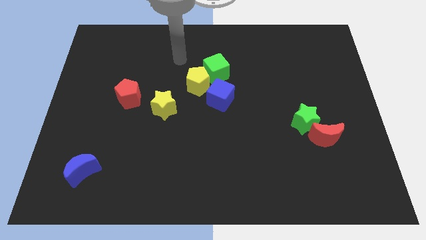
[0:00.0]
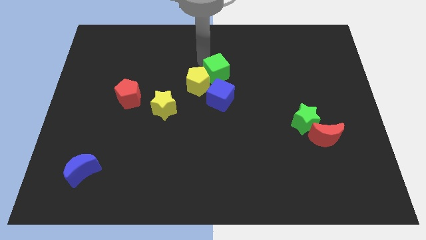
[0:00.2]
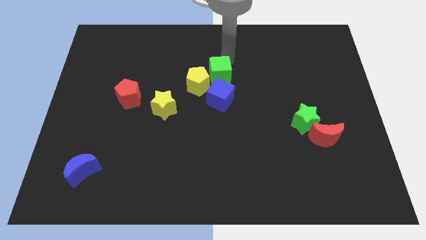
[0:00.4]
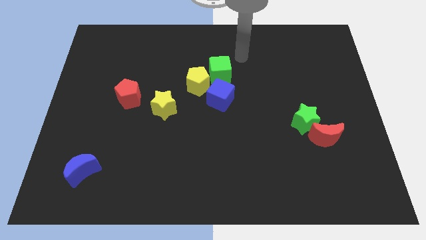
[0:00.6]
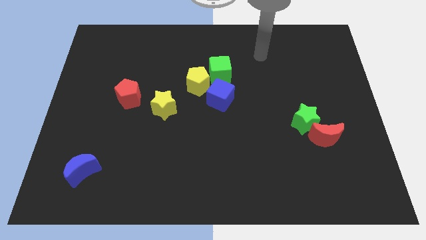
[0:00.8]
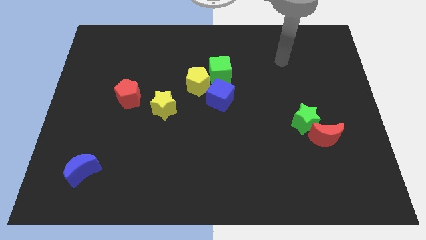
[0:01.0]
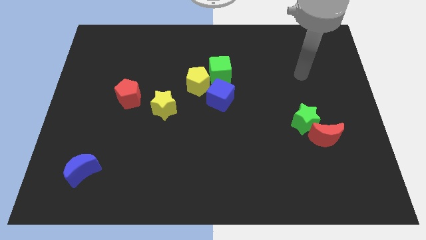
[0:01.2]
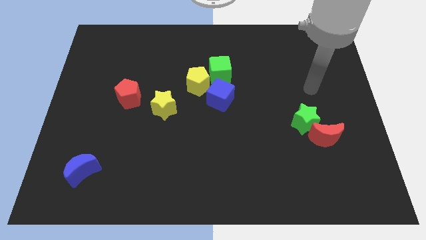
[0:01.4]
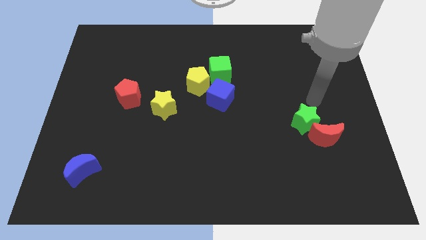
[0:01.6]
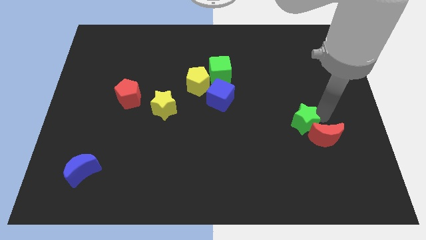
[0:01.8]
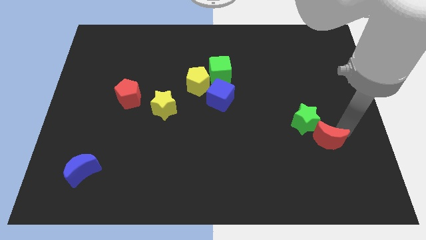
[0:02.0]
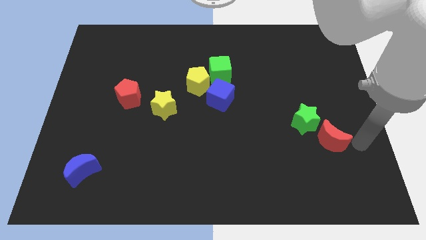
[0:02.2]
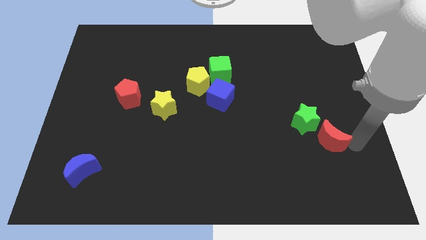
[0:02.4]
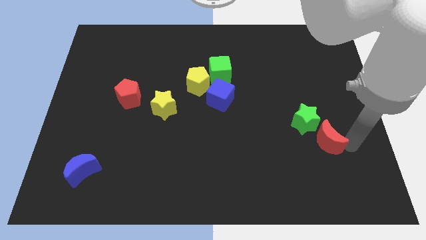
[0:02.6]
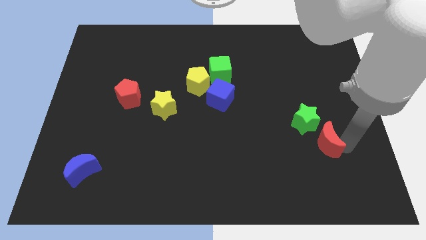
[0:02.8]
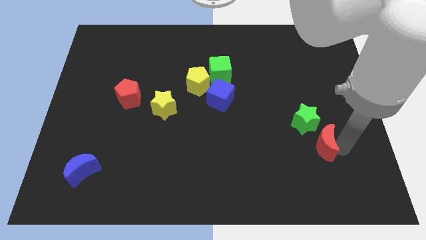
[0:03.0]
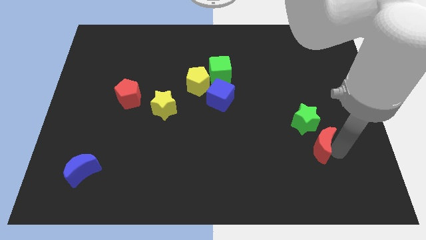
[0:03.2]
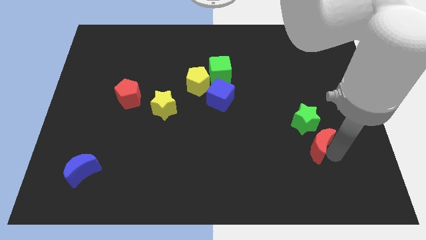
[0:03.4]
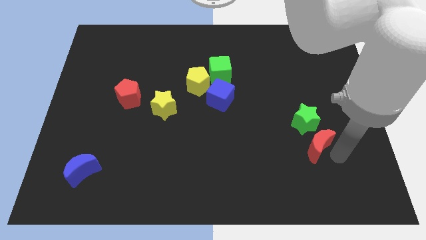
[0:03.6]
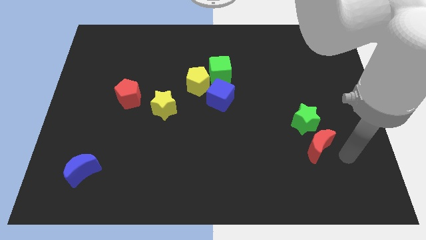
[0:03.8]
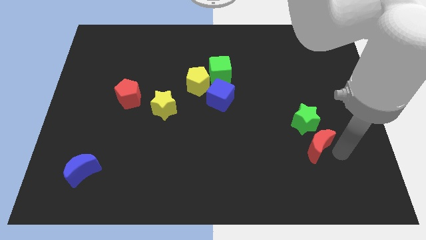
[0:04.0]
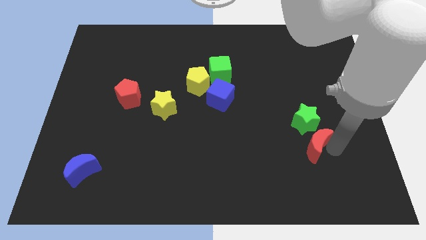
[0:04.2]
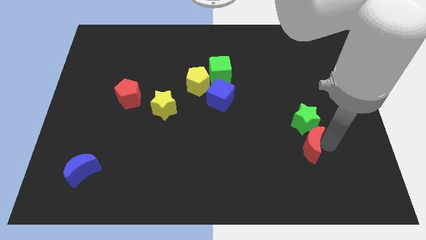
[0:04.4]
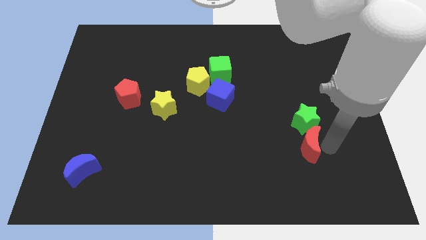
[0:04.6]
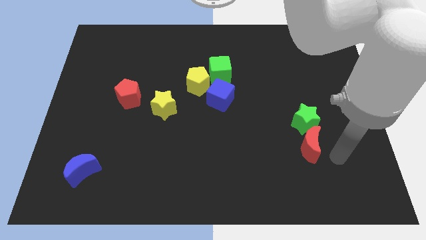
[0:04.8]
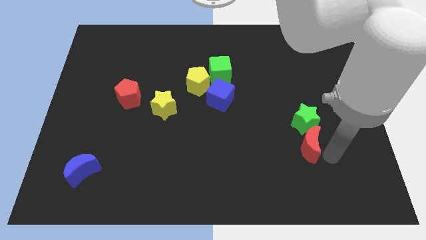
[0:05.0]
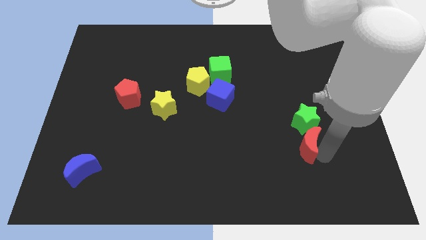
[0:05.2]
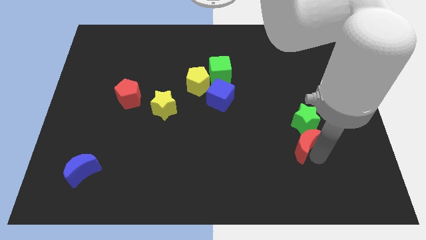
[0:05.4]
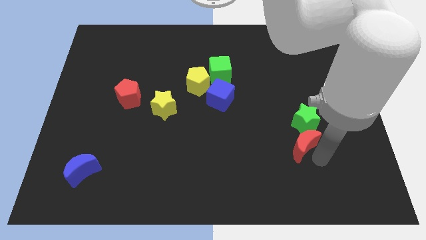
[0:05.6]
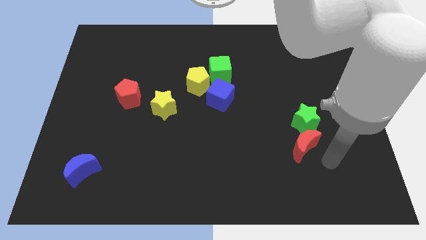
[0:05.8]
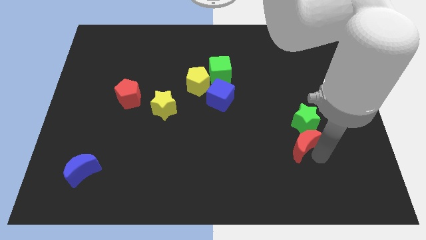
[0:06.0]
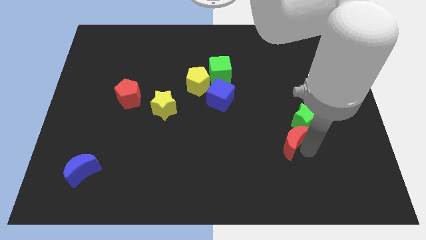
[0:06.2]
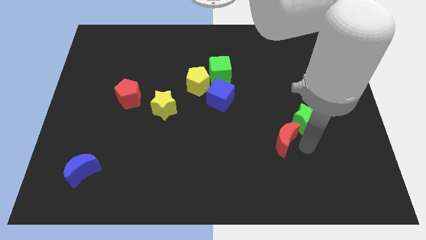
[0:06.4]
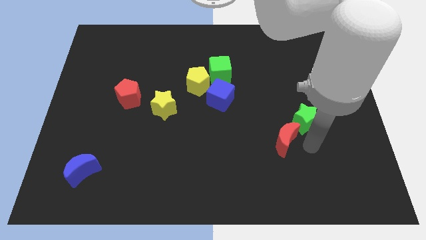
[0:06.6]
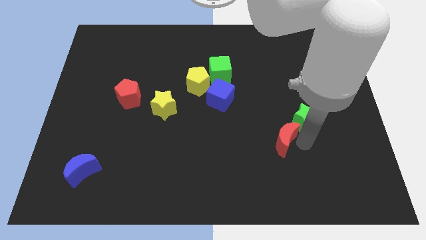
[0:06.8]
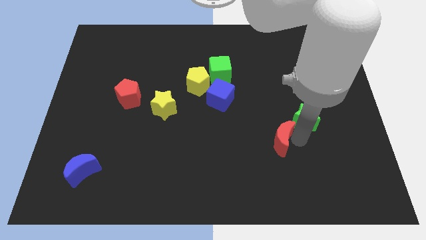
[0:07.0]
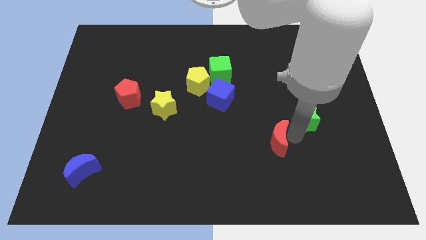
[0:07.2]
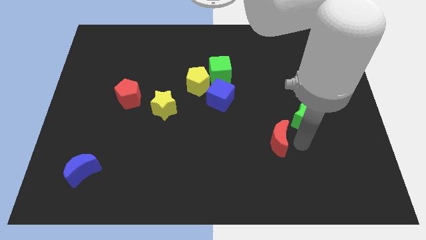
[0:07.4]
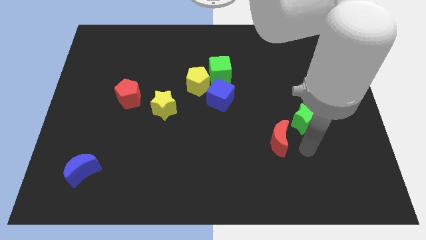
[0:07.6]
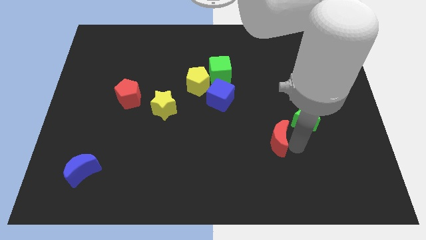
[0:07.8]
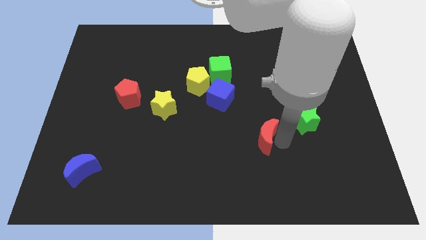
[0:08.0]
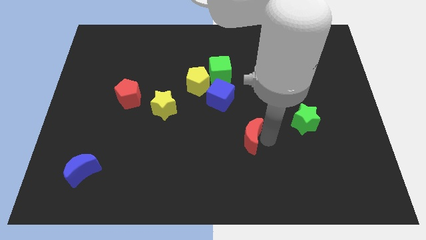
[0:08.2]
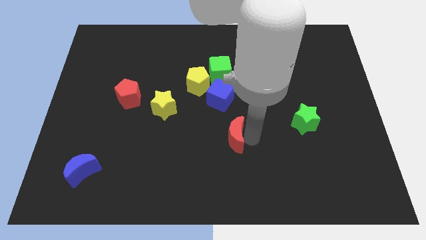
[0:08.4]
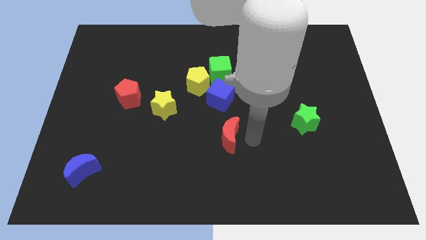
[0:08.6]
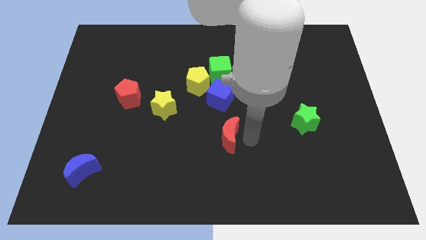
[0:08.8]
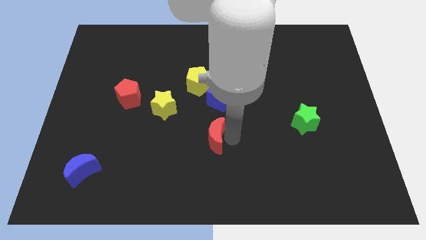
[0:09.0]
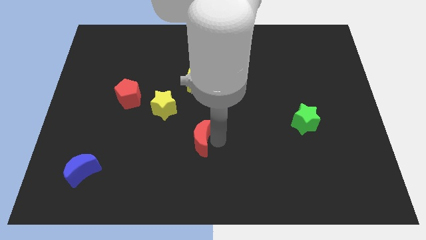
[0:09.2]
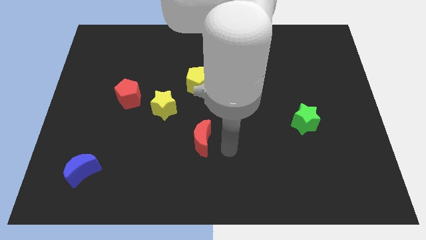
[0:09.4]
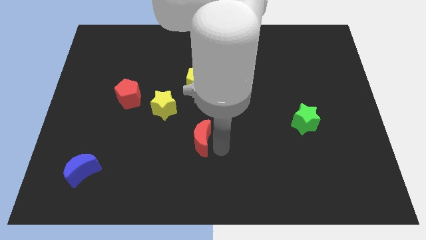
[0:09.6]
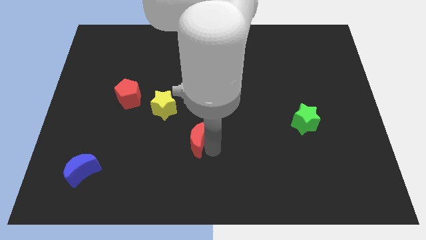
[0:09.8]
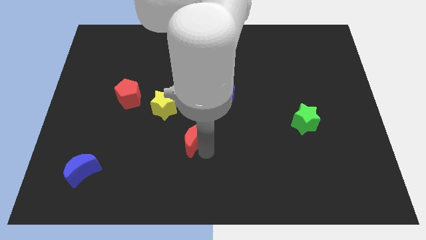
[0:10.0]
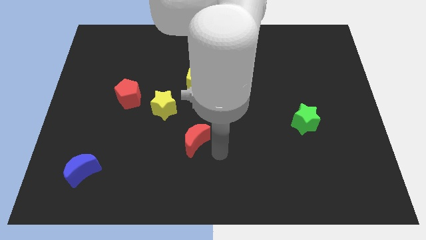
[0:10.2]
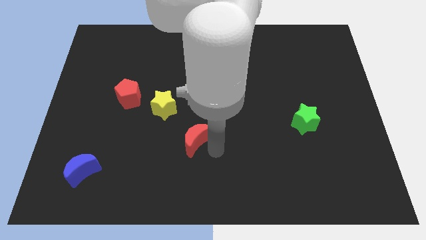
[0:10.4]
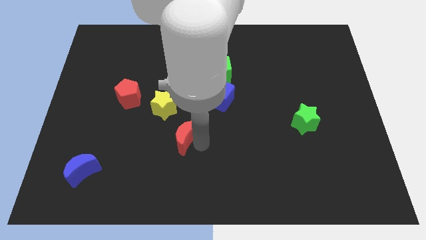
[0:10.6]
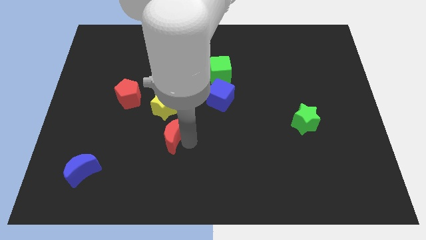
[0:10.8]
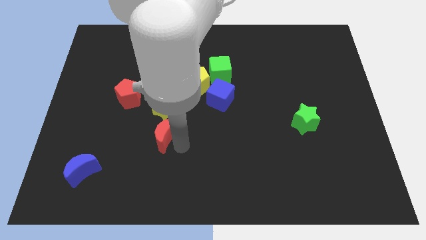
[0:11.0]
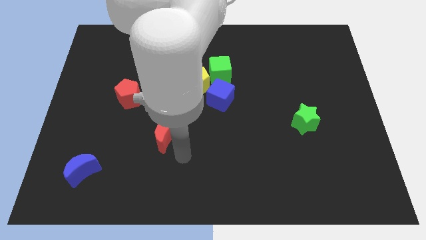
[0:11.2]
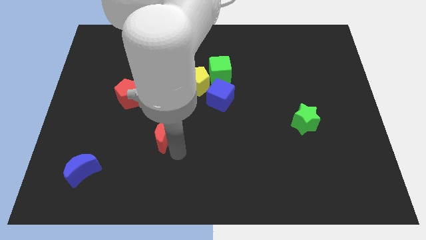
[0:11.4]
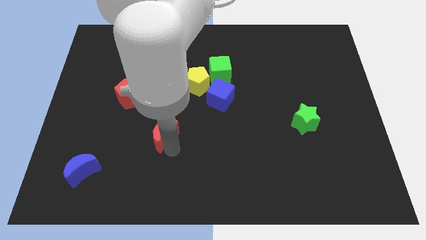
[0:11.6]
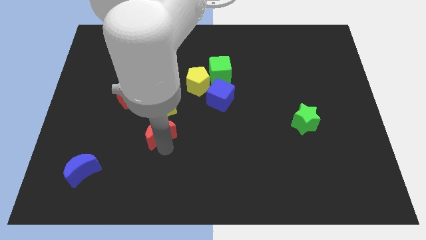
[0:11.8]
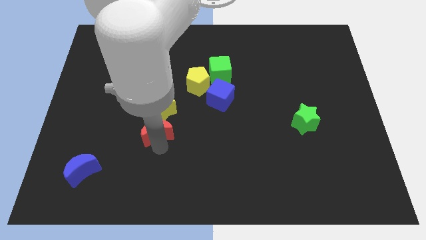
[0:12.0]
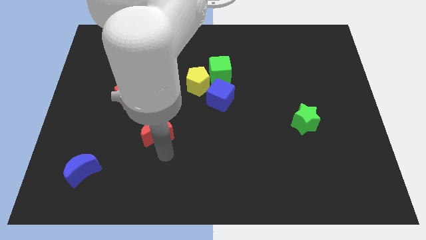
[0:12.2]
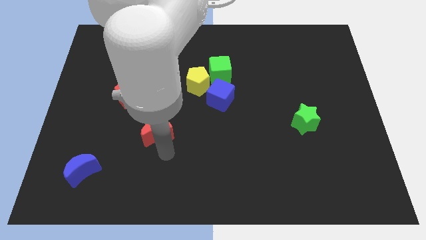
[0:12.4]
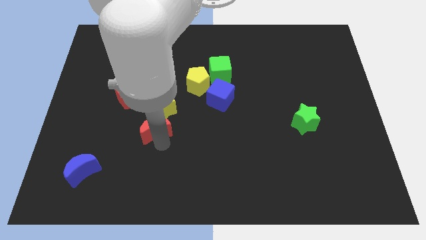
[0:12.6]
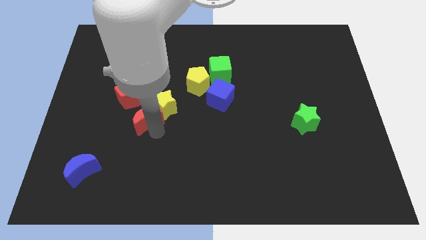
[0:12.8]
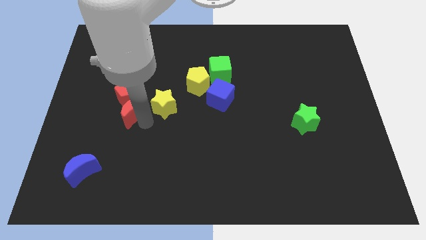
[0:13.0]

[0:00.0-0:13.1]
push the red moon towards the red pentagon
